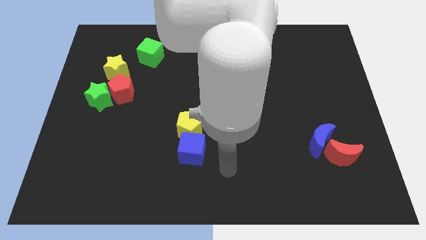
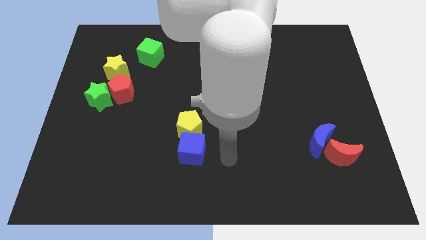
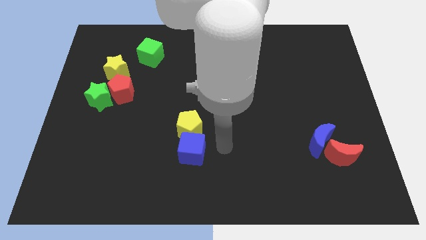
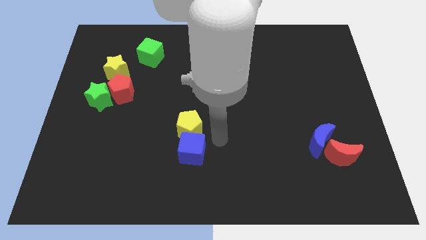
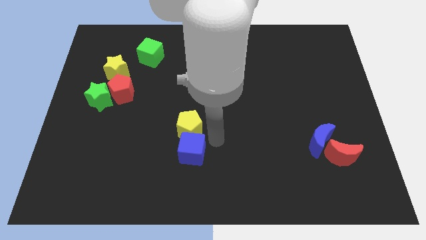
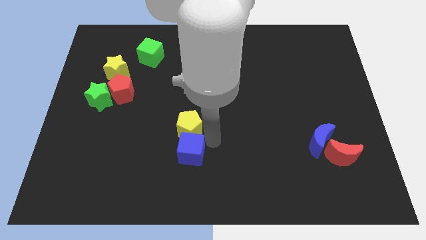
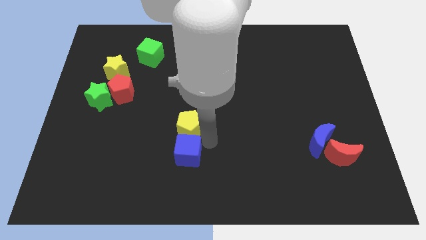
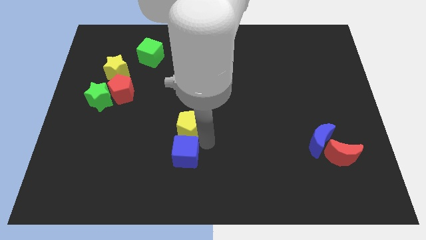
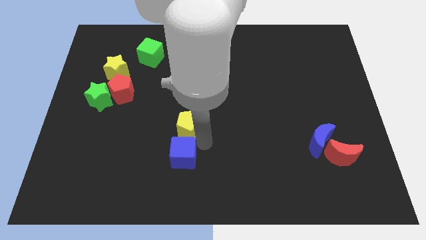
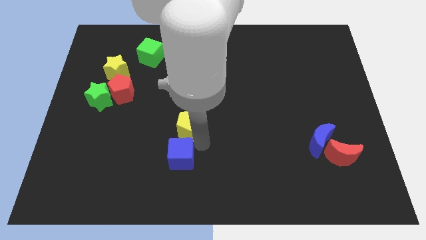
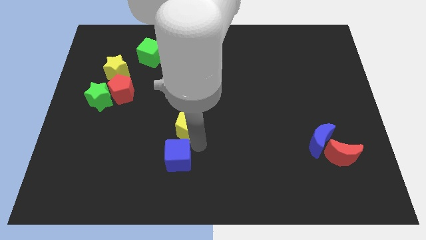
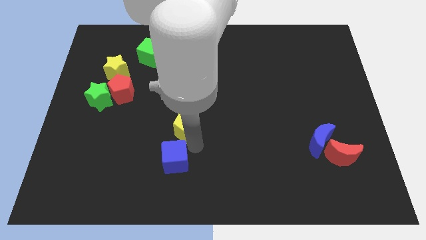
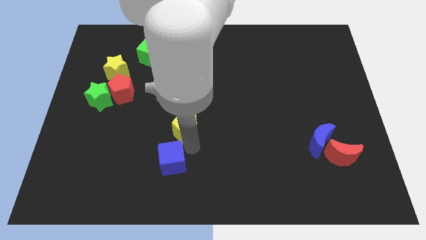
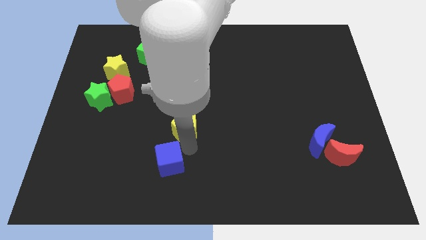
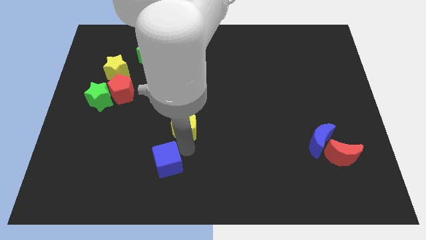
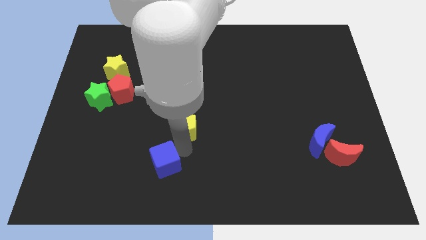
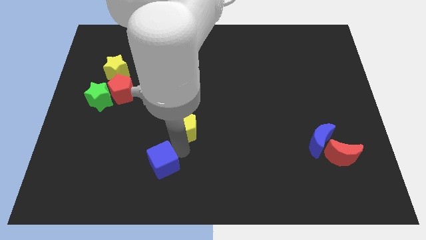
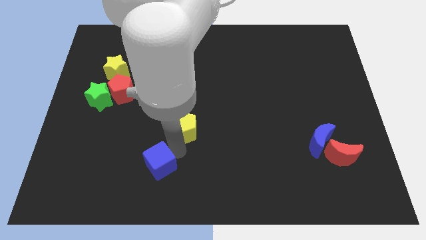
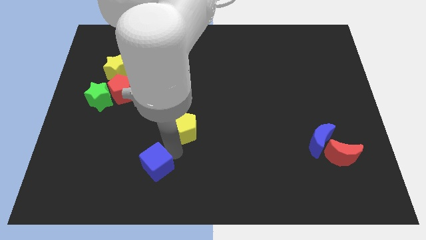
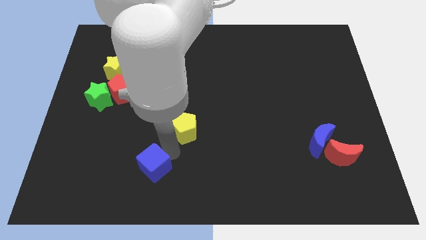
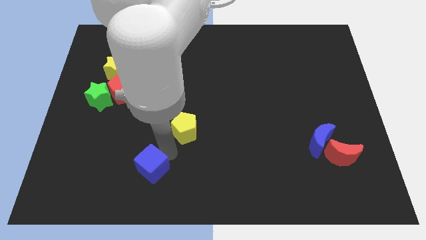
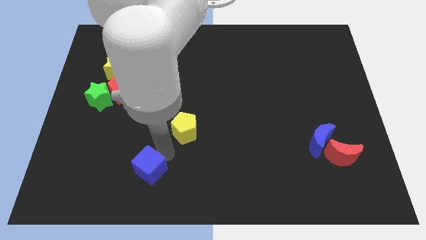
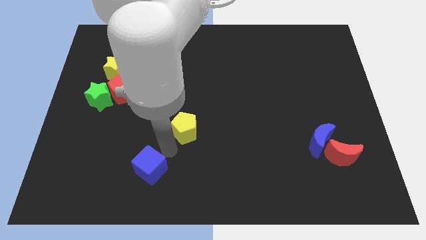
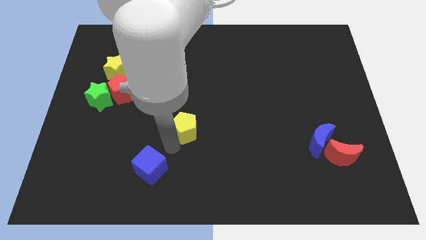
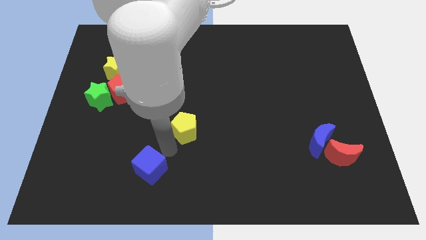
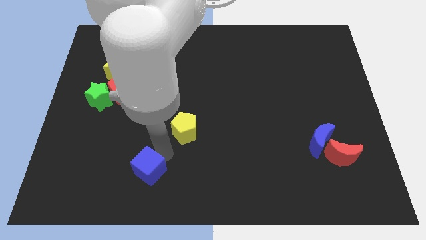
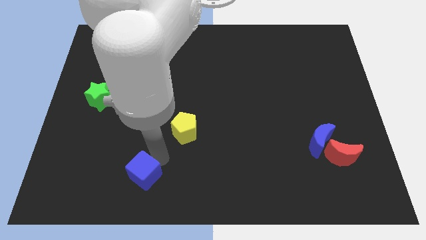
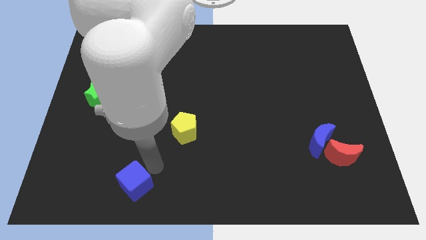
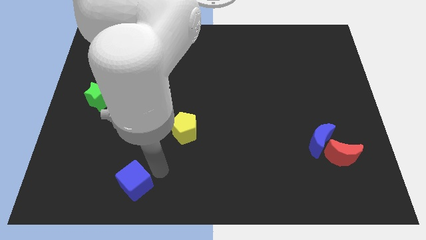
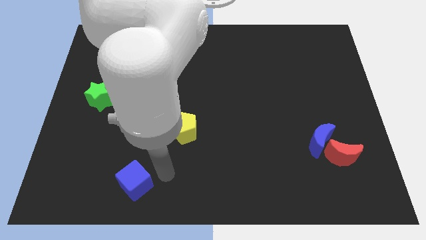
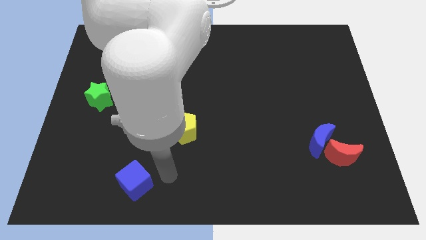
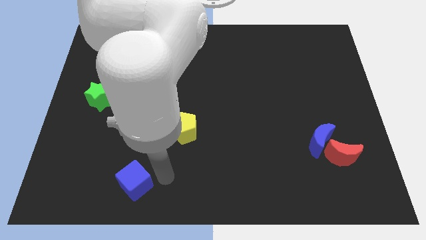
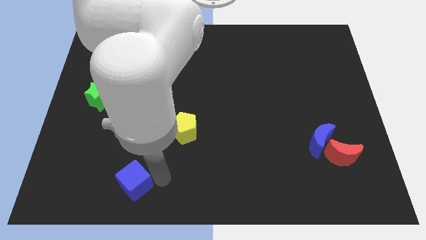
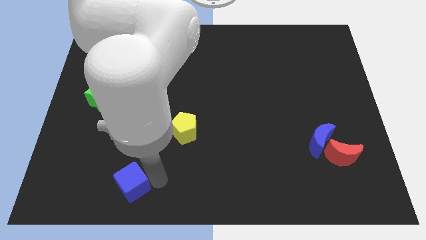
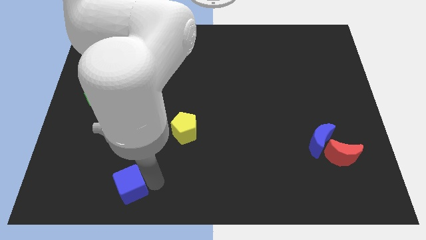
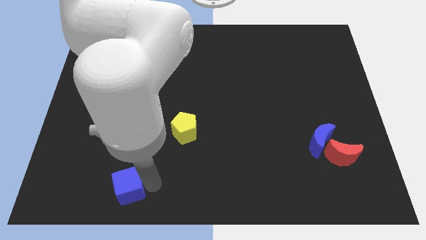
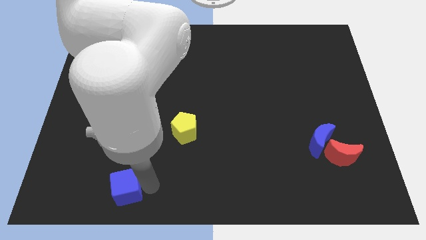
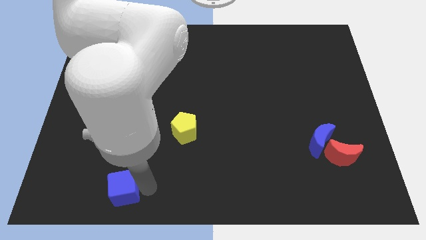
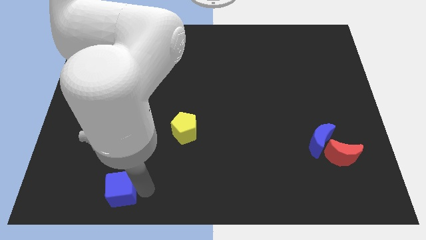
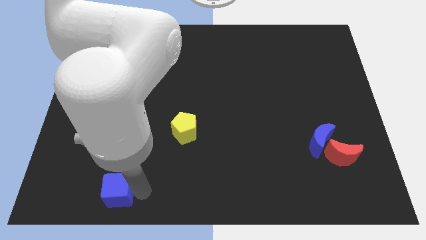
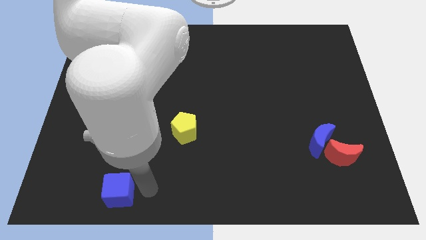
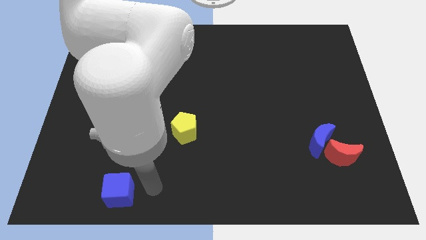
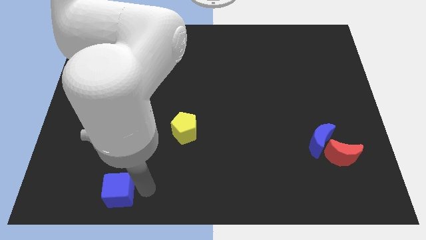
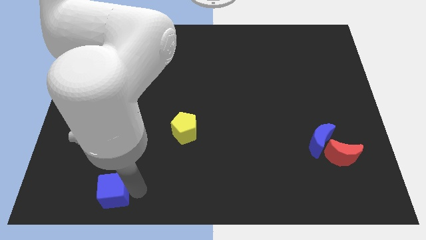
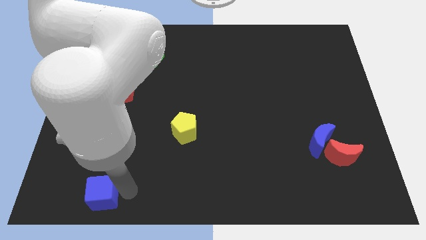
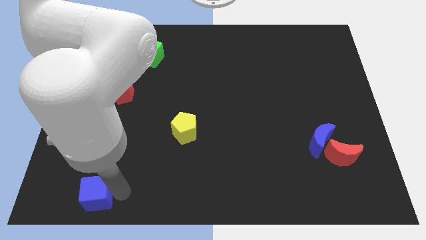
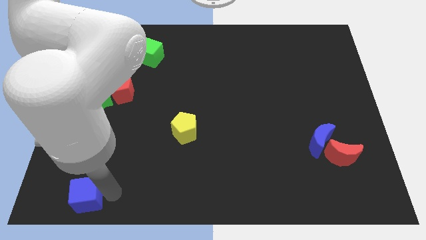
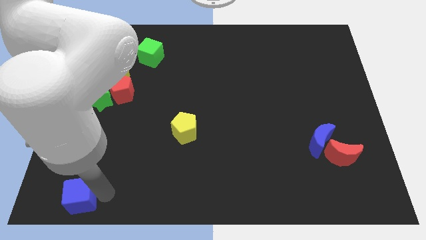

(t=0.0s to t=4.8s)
move the blue cube to the lower left corner

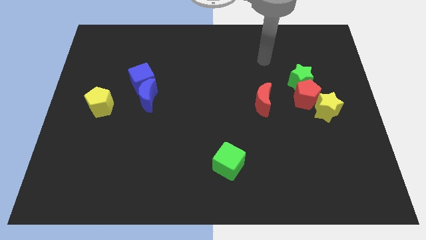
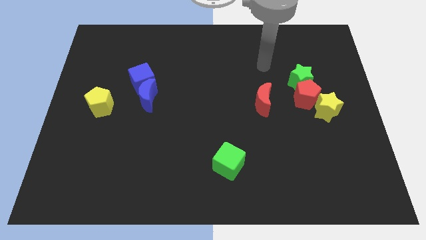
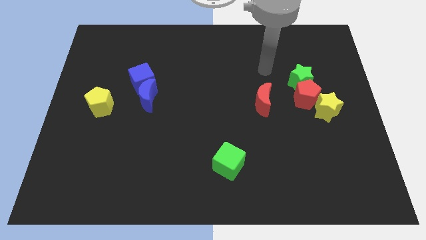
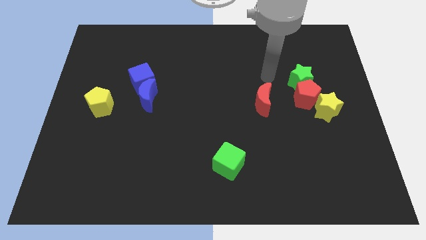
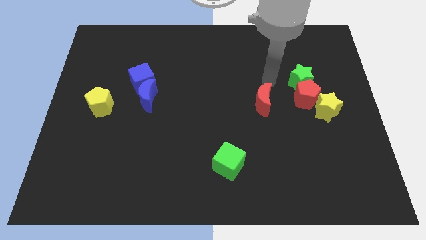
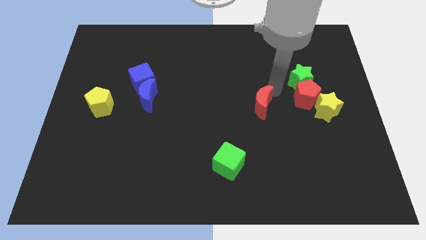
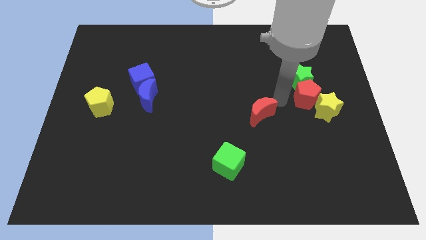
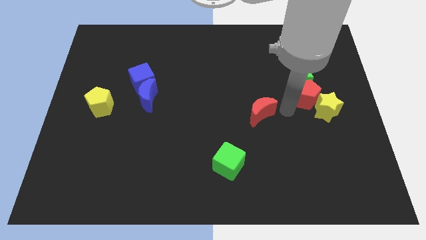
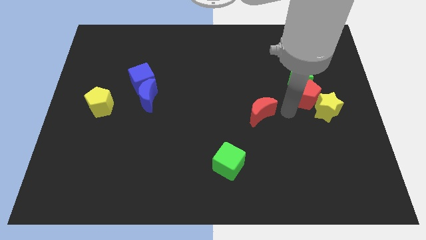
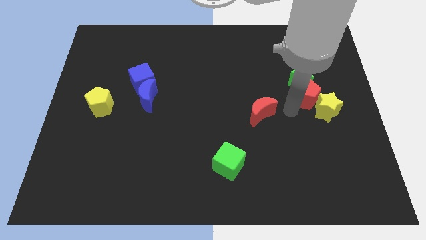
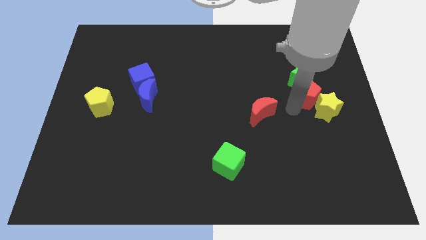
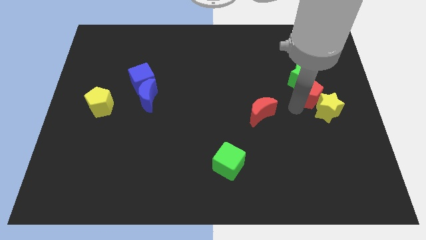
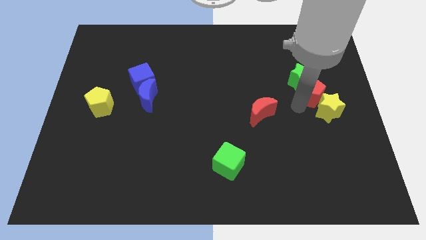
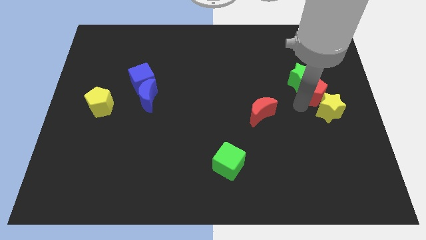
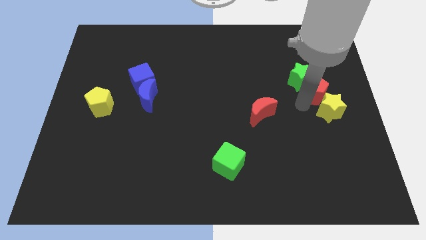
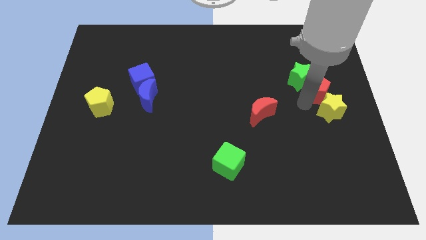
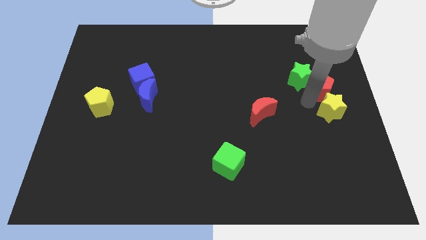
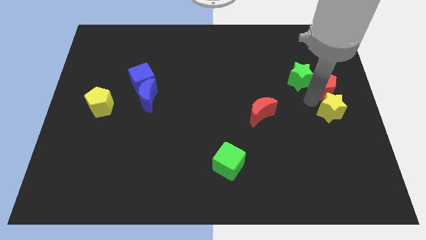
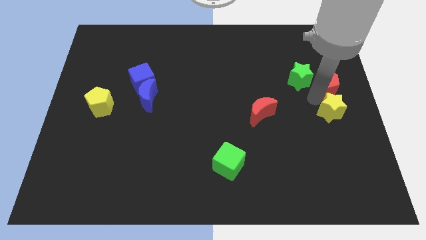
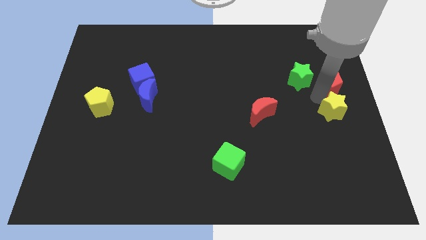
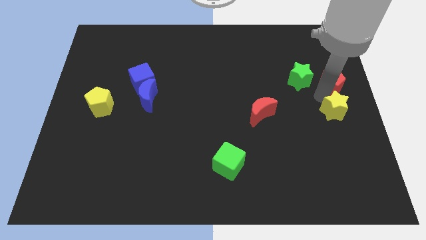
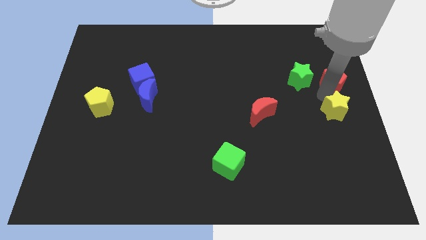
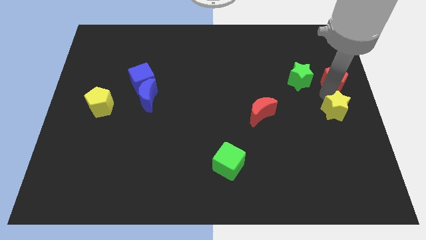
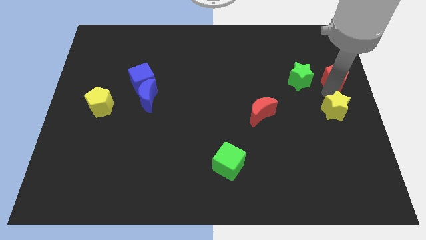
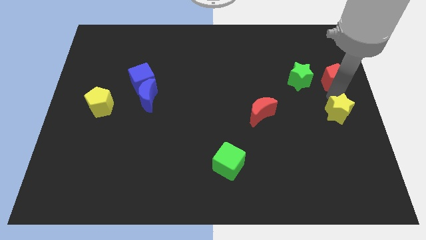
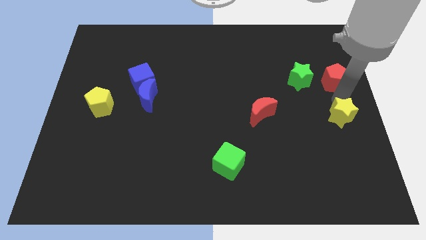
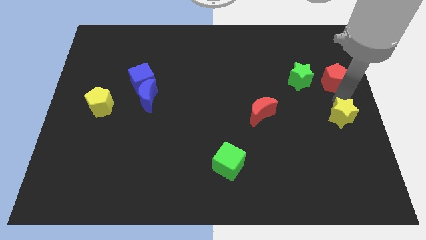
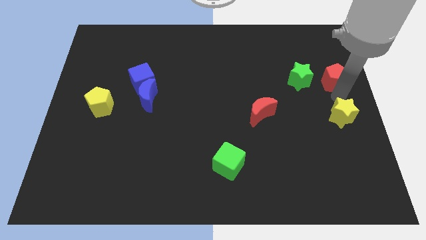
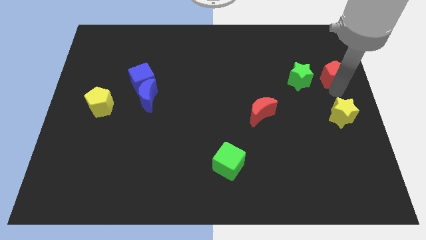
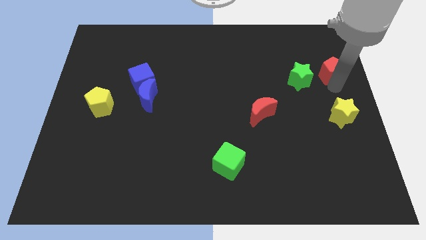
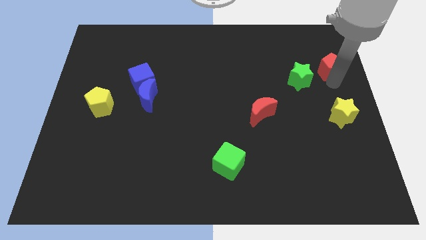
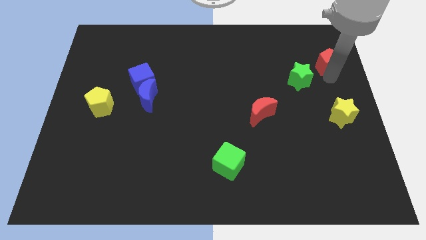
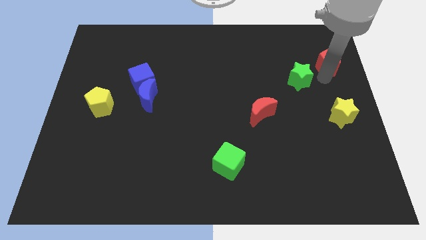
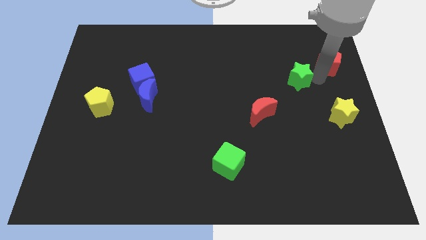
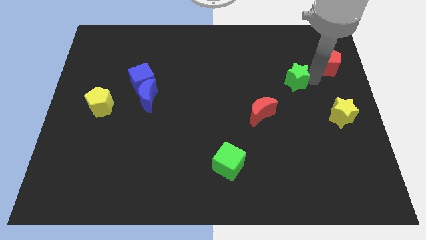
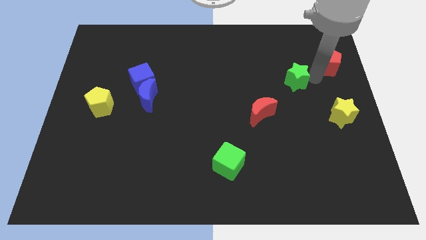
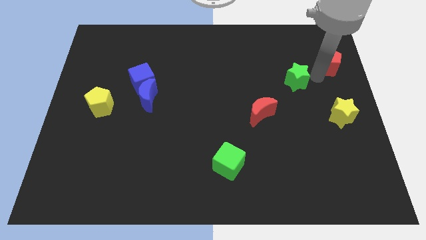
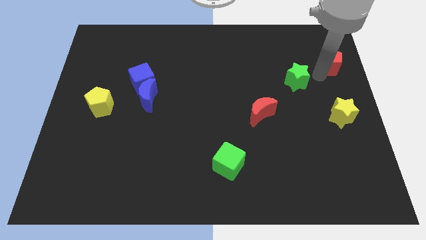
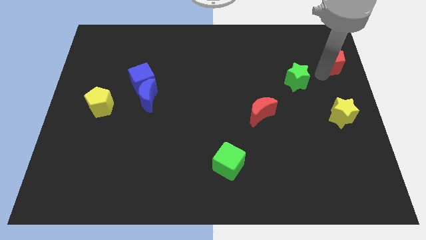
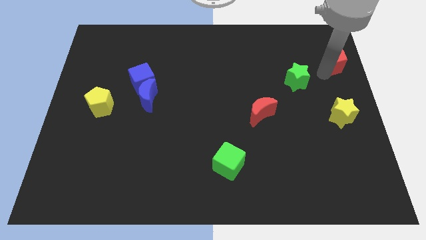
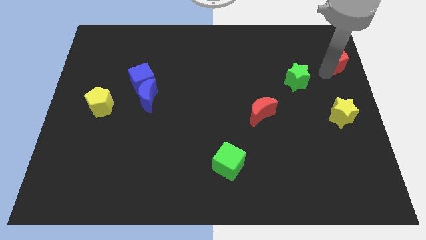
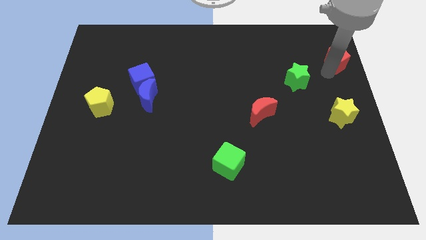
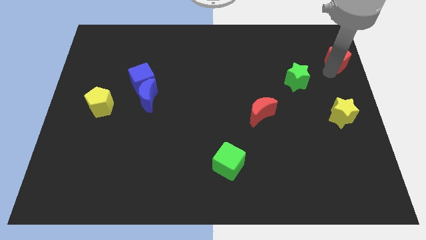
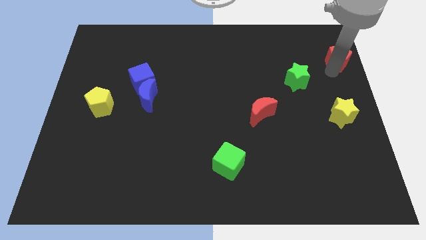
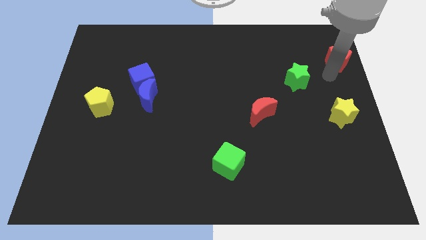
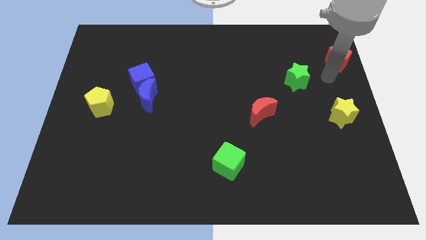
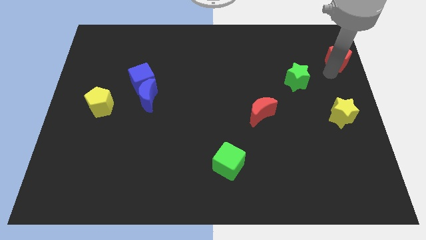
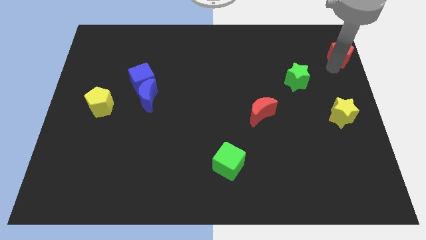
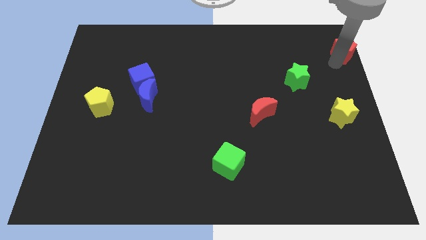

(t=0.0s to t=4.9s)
put the red pentagon to the top right of the board
